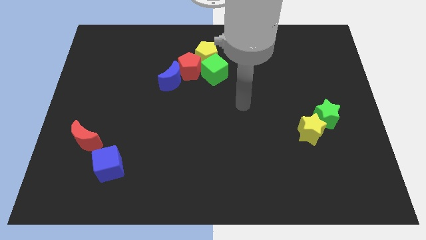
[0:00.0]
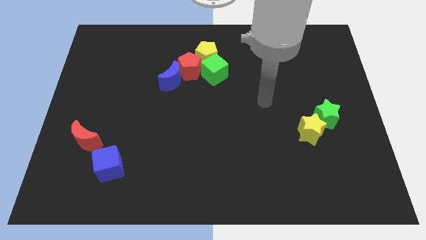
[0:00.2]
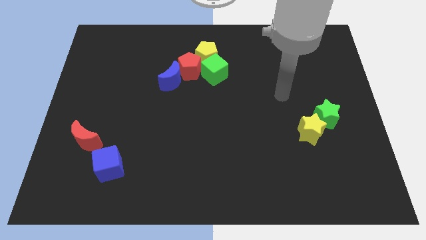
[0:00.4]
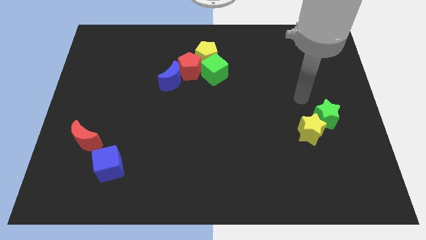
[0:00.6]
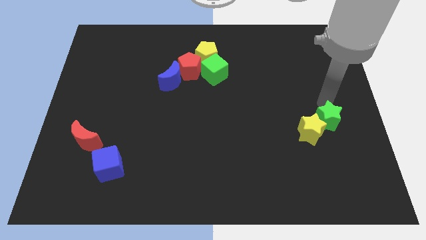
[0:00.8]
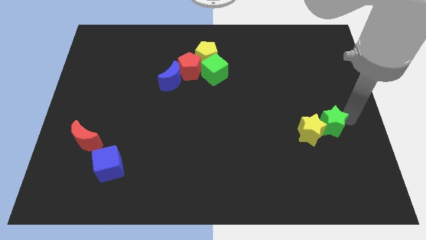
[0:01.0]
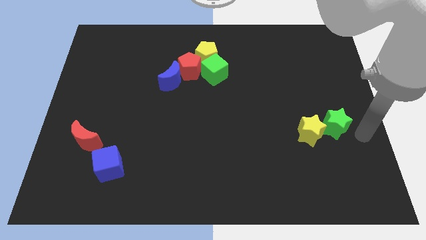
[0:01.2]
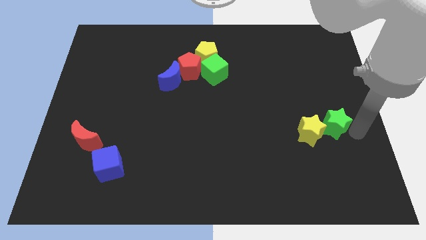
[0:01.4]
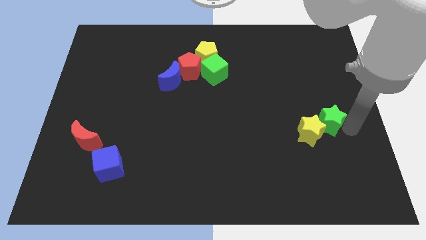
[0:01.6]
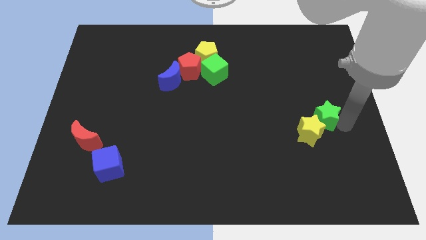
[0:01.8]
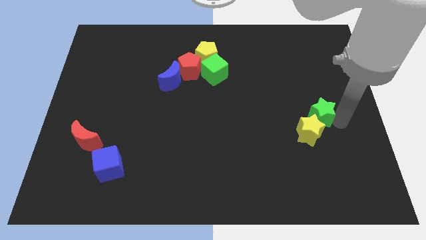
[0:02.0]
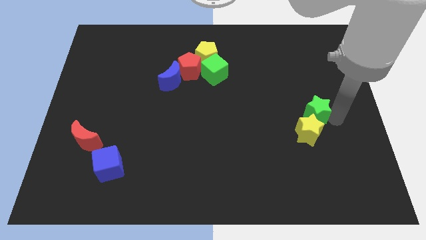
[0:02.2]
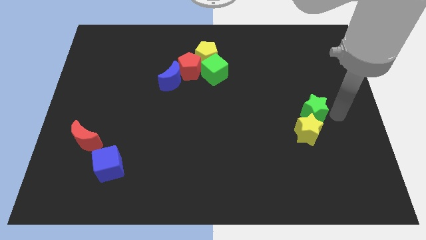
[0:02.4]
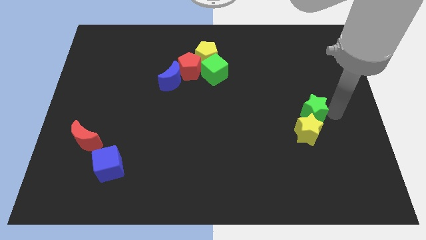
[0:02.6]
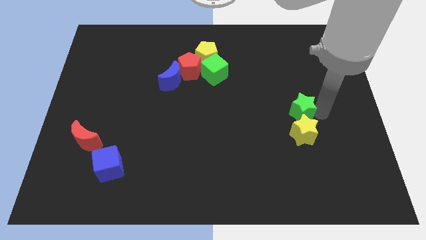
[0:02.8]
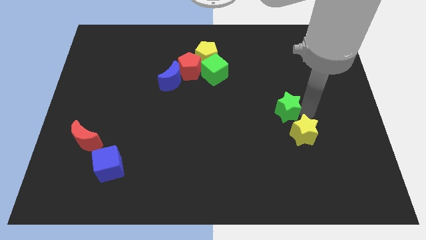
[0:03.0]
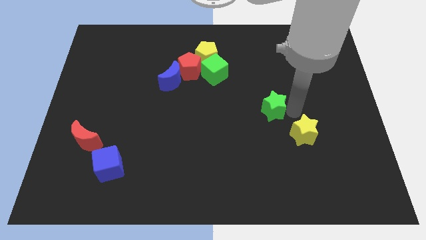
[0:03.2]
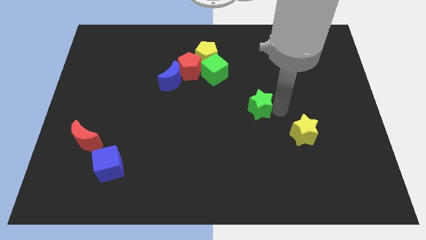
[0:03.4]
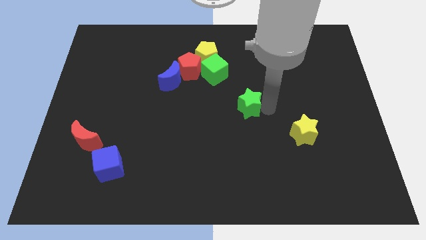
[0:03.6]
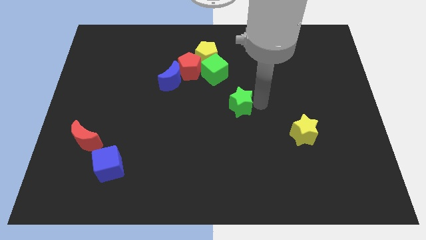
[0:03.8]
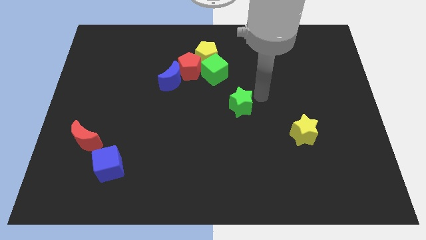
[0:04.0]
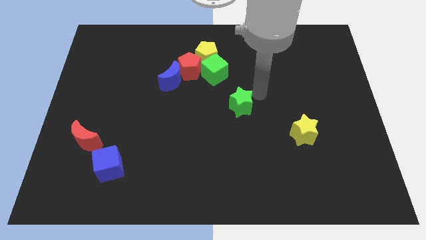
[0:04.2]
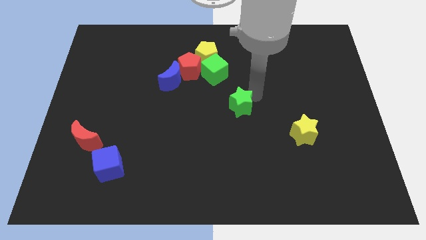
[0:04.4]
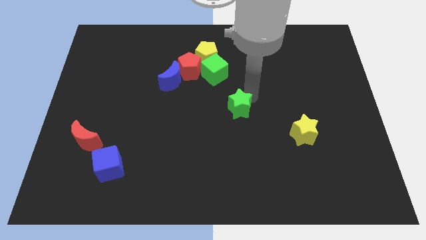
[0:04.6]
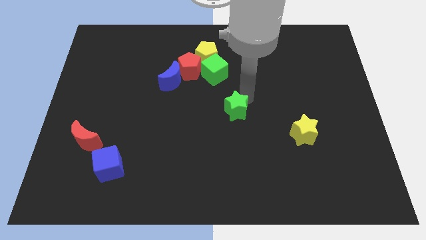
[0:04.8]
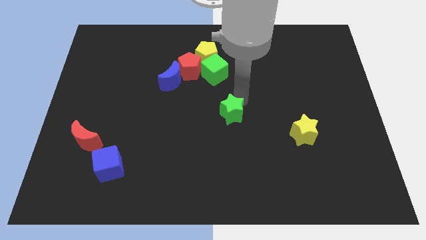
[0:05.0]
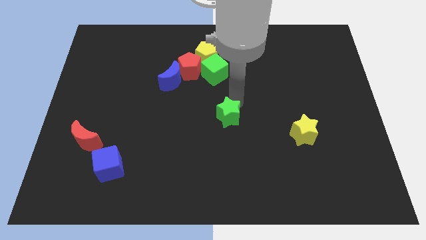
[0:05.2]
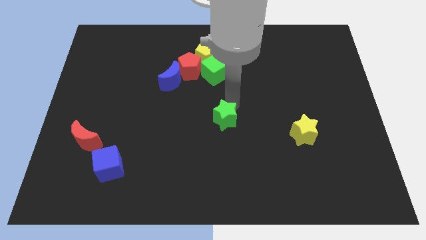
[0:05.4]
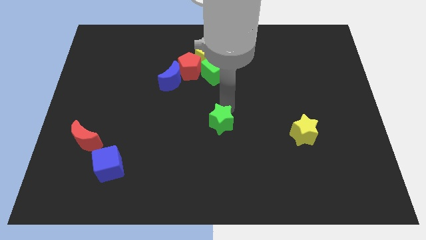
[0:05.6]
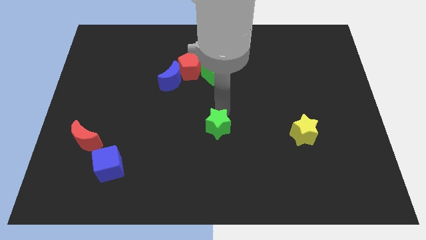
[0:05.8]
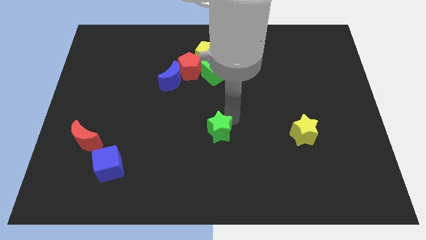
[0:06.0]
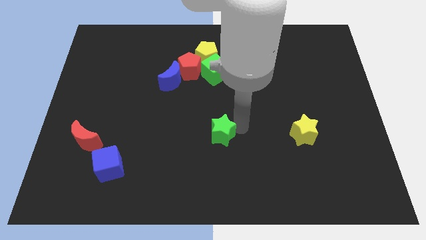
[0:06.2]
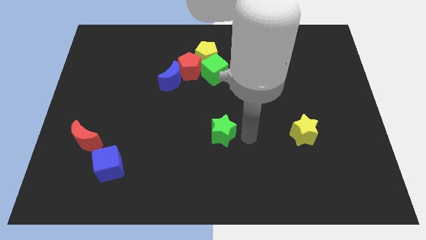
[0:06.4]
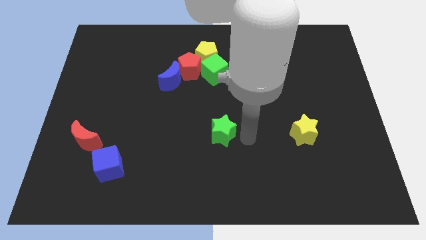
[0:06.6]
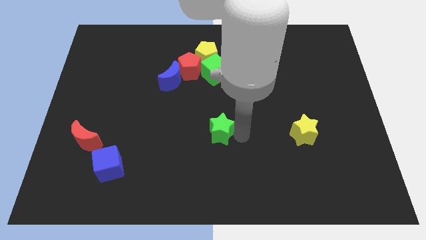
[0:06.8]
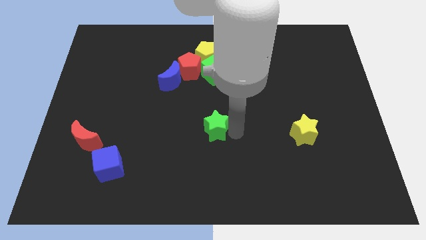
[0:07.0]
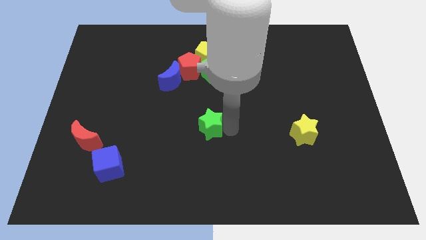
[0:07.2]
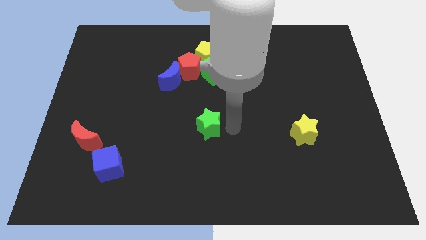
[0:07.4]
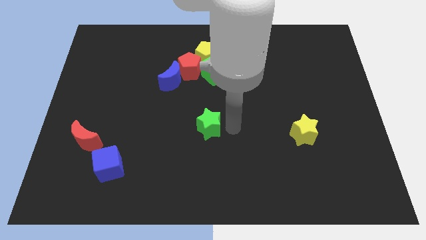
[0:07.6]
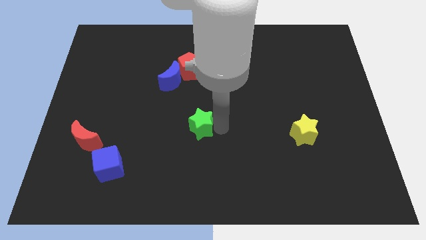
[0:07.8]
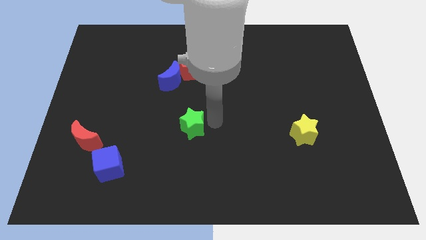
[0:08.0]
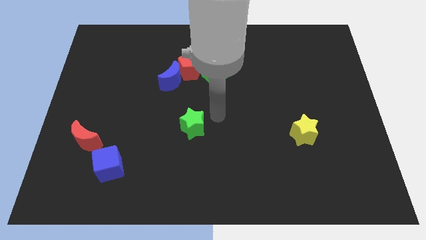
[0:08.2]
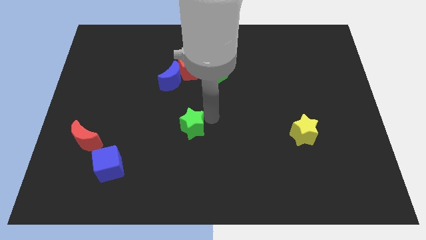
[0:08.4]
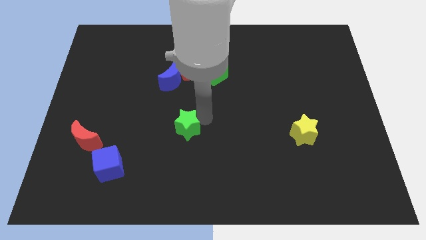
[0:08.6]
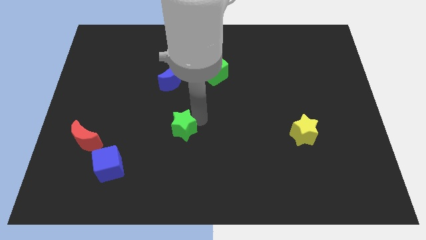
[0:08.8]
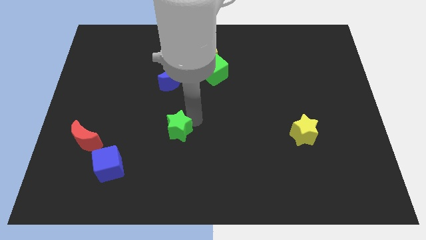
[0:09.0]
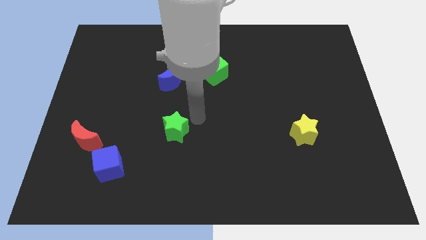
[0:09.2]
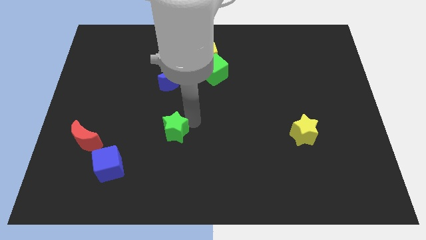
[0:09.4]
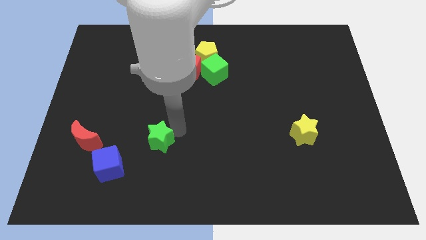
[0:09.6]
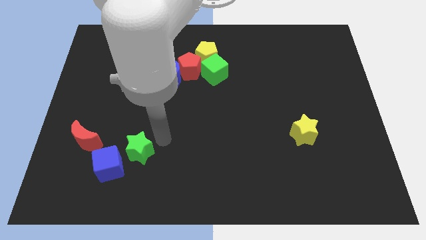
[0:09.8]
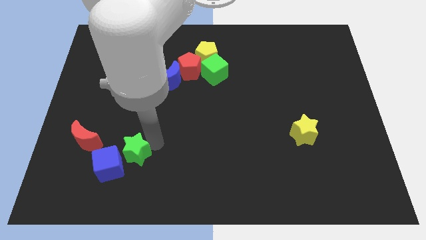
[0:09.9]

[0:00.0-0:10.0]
move the green star towards the blue cube

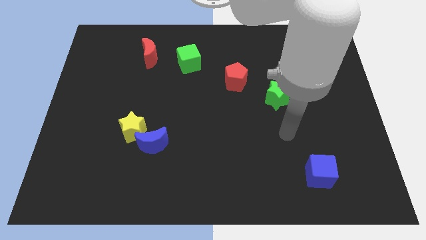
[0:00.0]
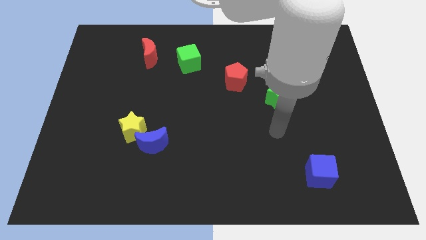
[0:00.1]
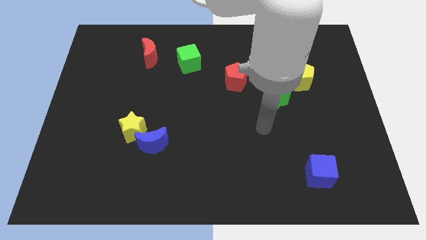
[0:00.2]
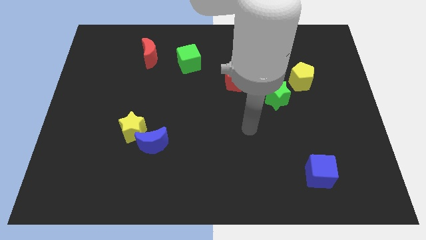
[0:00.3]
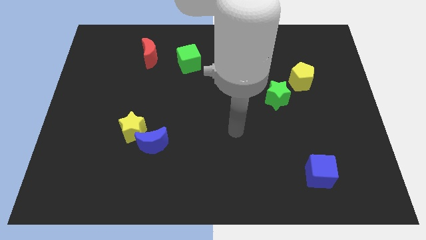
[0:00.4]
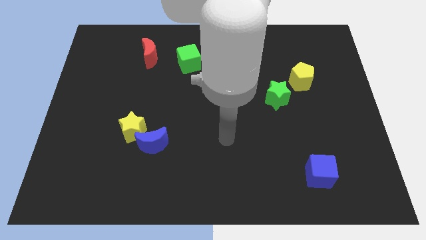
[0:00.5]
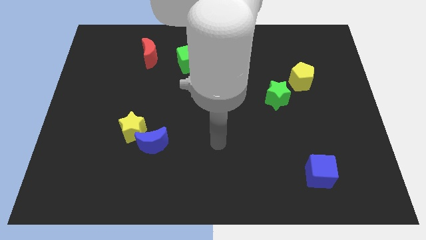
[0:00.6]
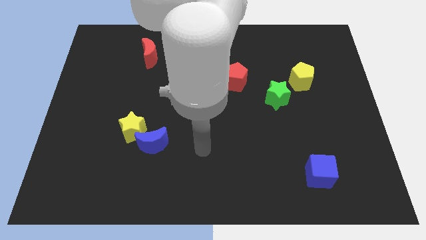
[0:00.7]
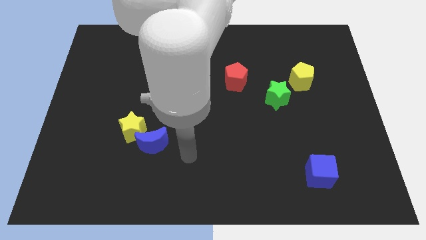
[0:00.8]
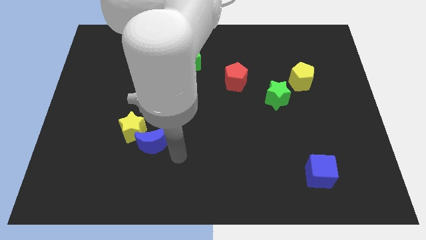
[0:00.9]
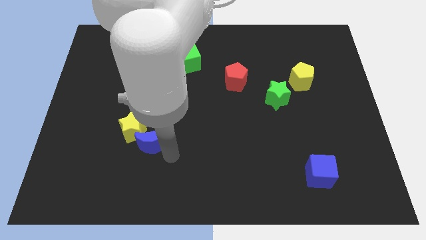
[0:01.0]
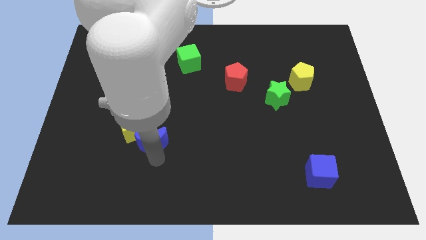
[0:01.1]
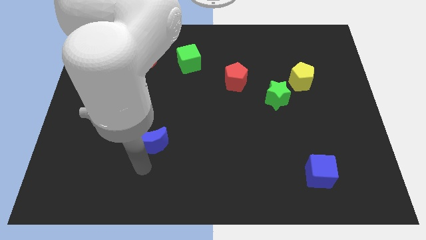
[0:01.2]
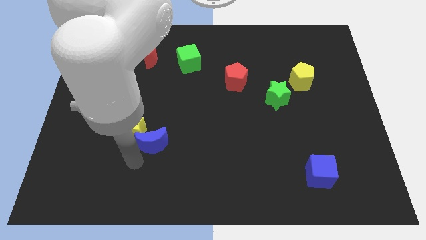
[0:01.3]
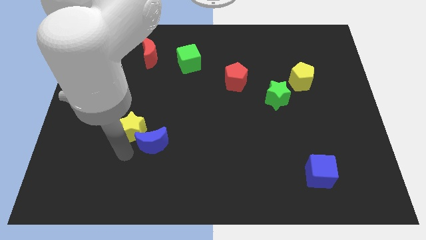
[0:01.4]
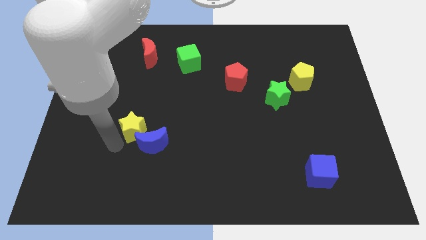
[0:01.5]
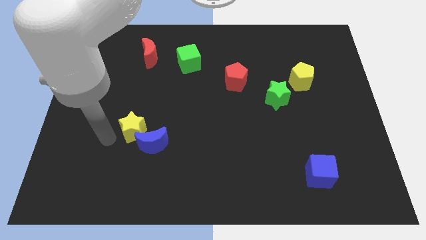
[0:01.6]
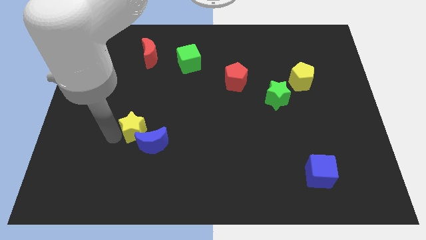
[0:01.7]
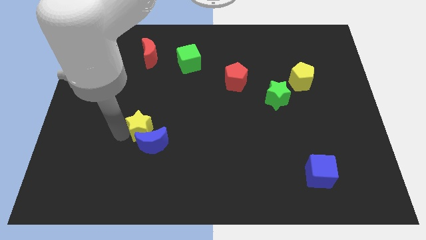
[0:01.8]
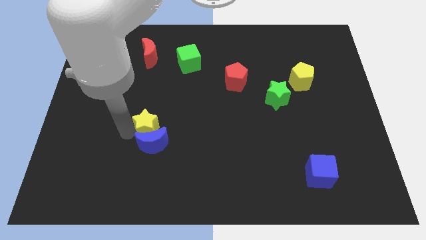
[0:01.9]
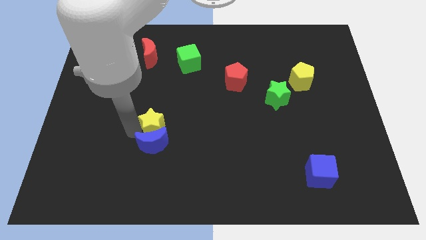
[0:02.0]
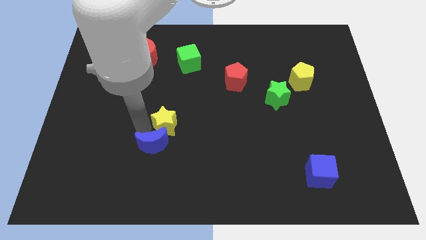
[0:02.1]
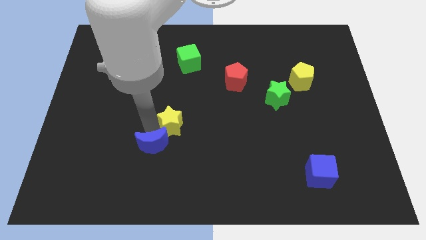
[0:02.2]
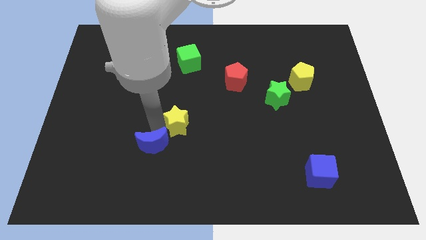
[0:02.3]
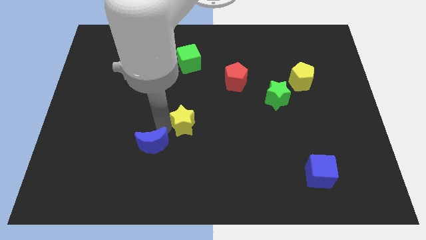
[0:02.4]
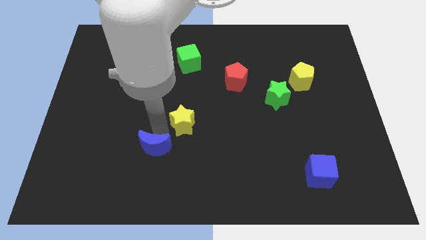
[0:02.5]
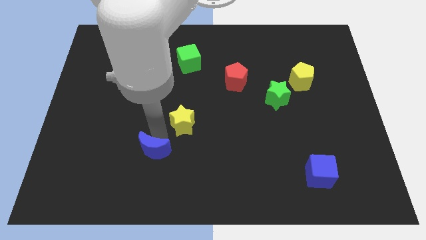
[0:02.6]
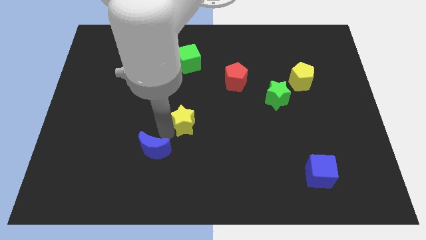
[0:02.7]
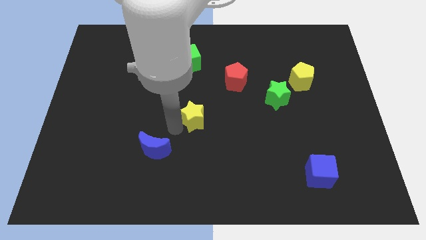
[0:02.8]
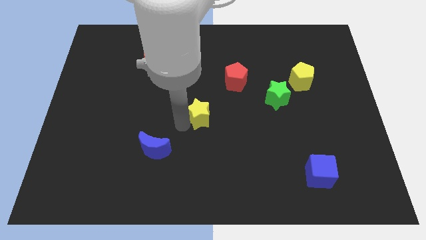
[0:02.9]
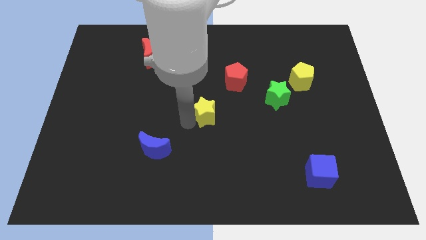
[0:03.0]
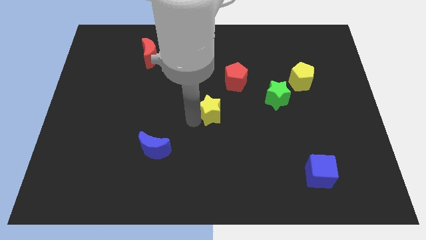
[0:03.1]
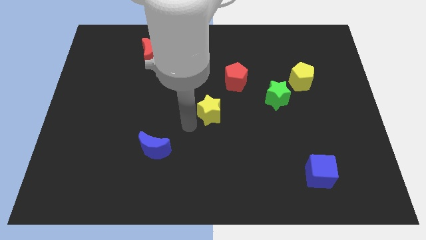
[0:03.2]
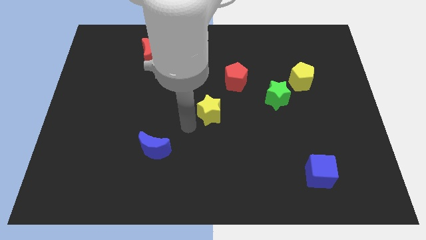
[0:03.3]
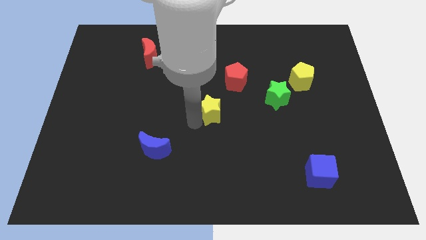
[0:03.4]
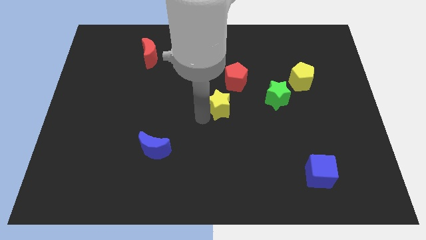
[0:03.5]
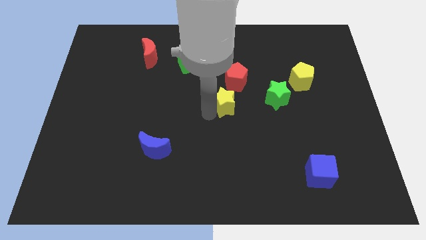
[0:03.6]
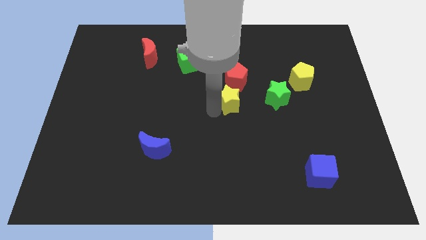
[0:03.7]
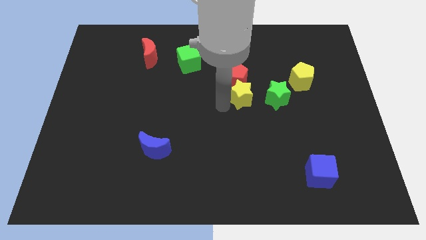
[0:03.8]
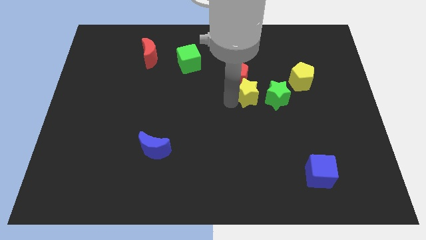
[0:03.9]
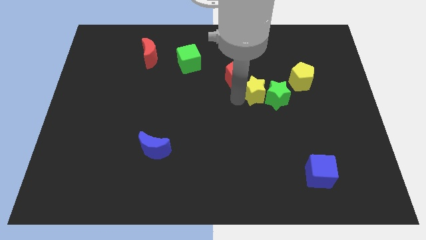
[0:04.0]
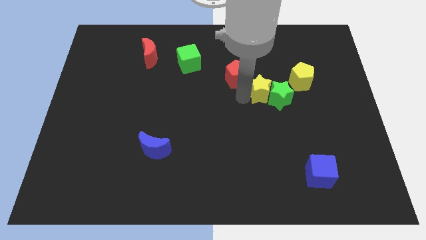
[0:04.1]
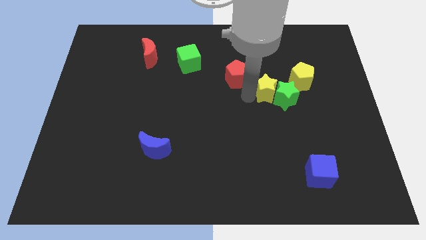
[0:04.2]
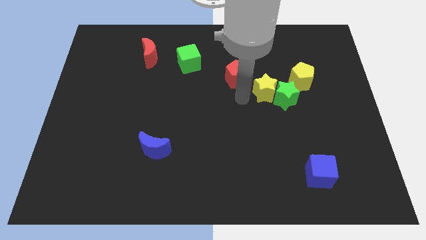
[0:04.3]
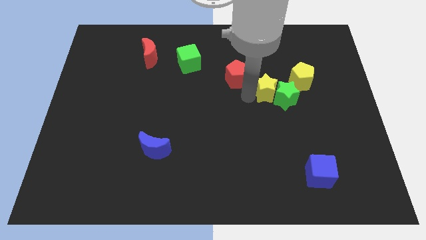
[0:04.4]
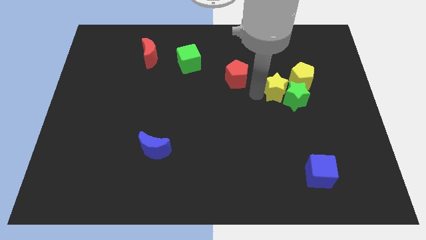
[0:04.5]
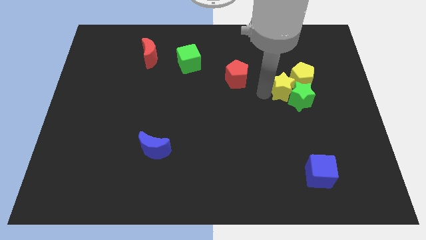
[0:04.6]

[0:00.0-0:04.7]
put the yellow star next to the yellow pentagon
